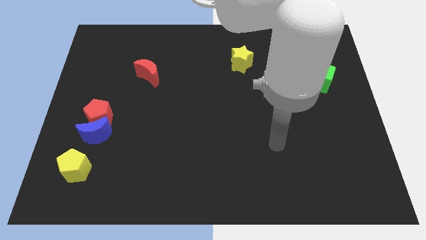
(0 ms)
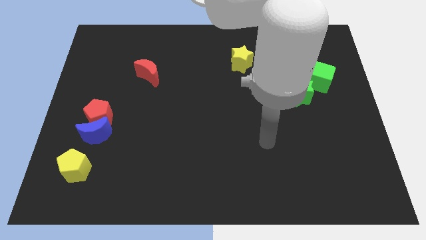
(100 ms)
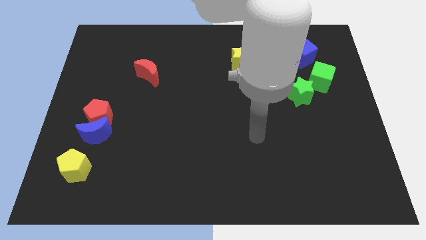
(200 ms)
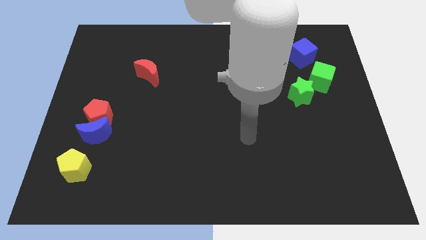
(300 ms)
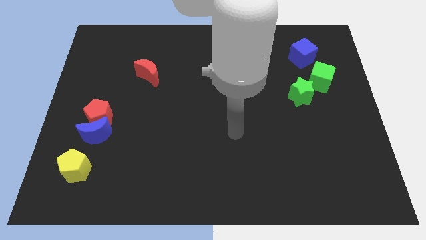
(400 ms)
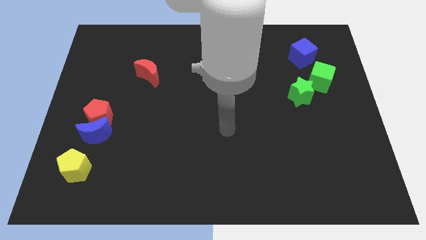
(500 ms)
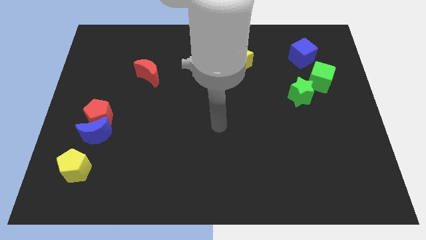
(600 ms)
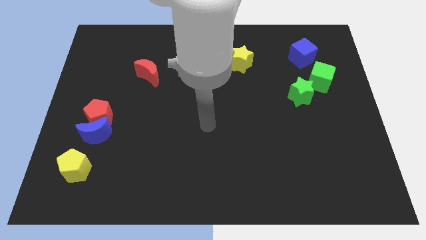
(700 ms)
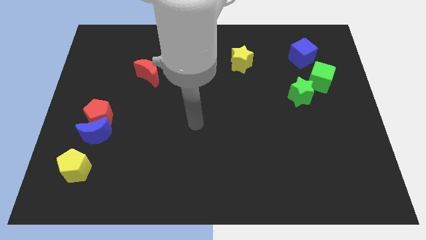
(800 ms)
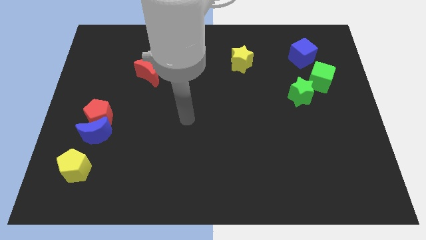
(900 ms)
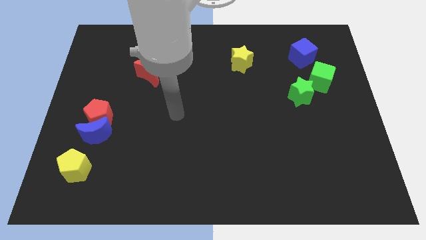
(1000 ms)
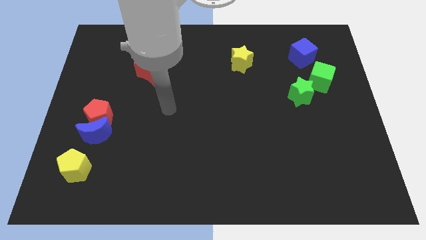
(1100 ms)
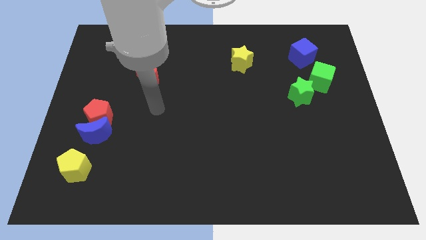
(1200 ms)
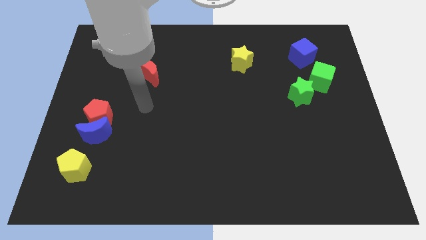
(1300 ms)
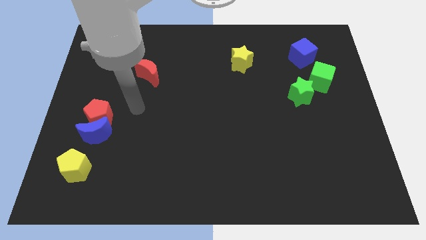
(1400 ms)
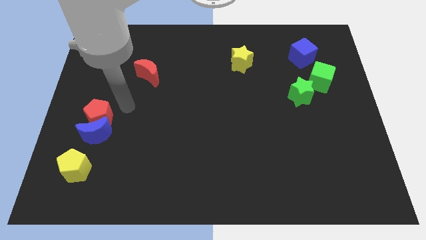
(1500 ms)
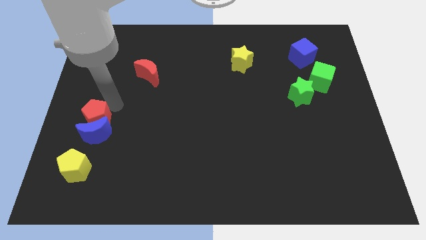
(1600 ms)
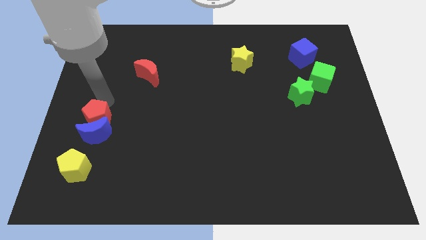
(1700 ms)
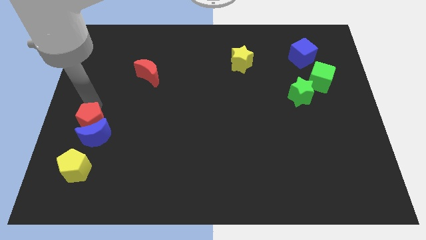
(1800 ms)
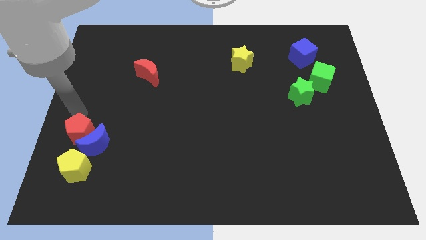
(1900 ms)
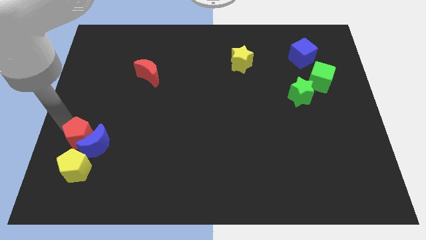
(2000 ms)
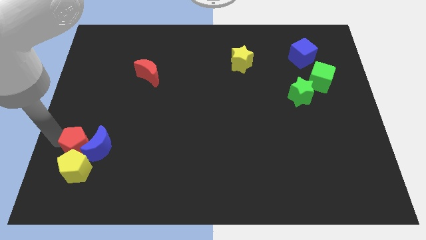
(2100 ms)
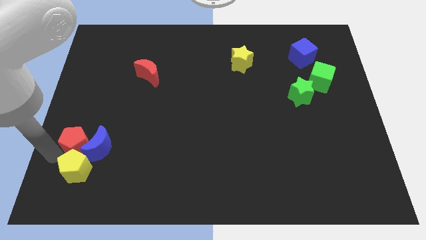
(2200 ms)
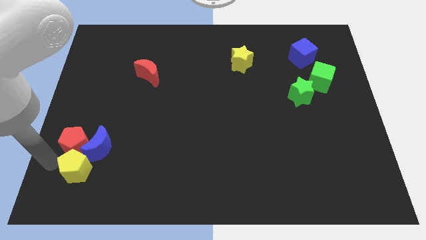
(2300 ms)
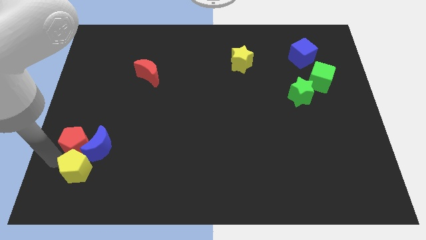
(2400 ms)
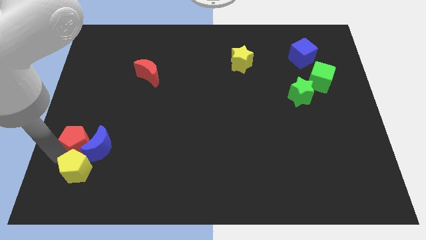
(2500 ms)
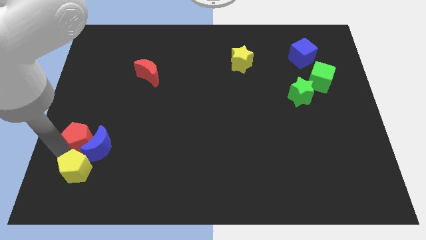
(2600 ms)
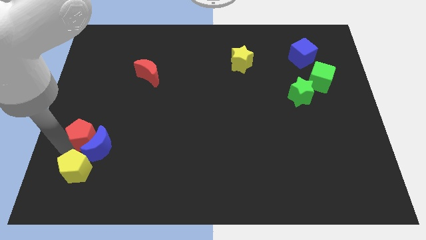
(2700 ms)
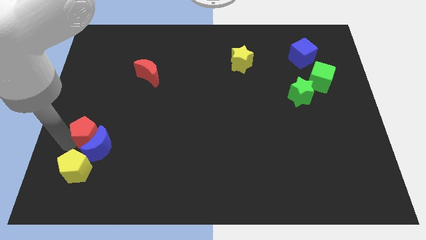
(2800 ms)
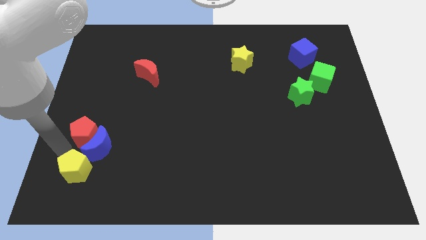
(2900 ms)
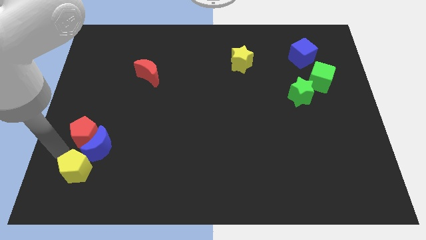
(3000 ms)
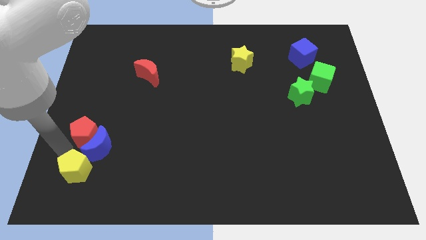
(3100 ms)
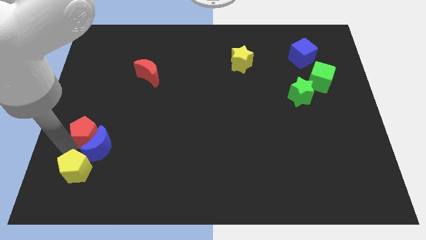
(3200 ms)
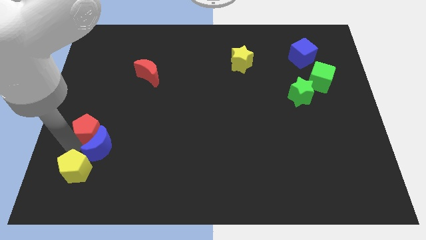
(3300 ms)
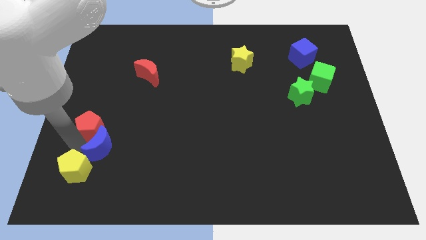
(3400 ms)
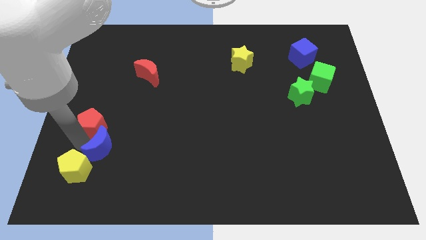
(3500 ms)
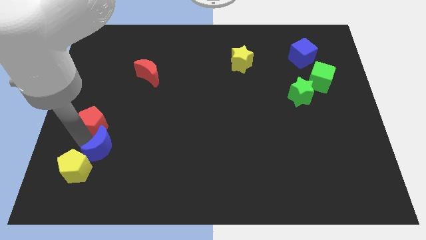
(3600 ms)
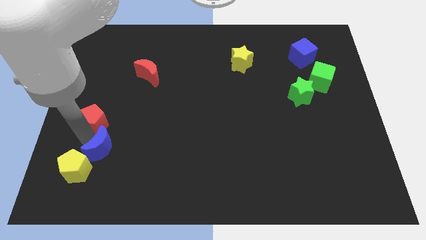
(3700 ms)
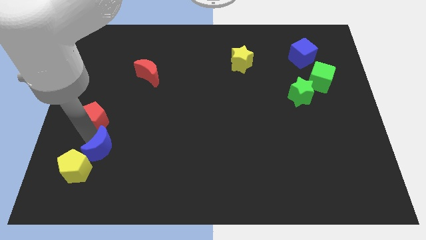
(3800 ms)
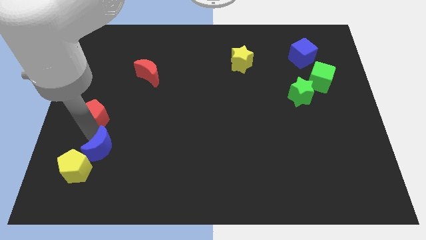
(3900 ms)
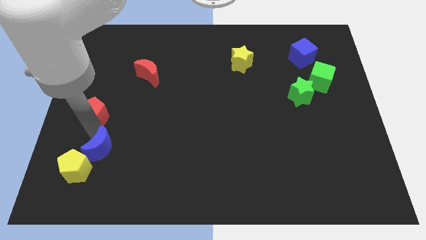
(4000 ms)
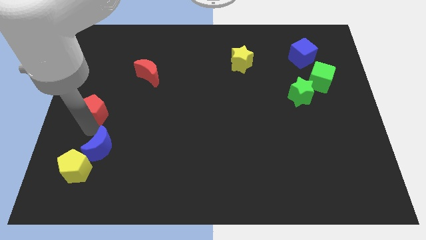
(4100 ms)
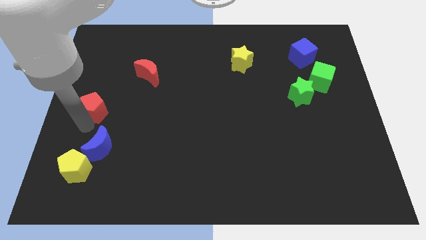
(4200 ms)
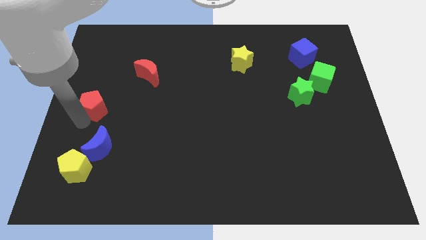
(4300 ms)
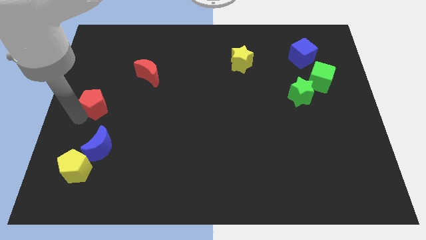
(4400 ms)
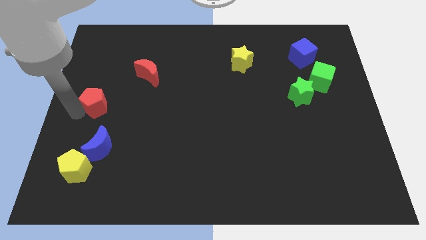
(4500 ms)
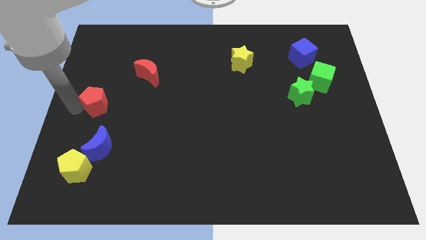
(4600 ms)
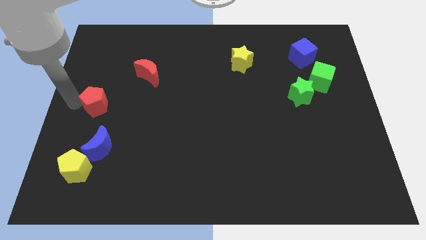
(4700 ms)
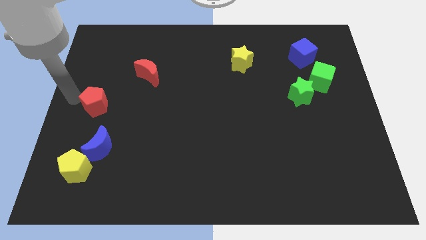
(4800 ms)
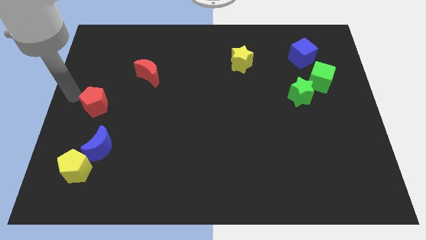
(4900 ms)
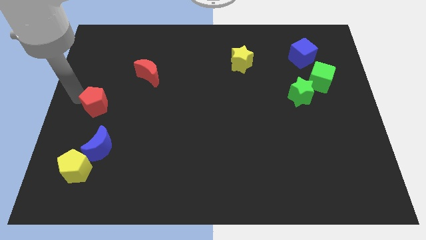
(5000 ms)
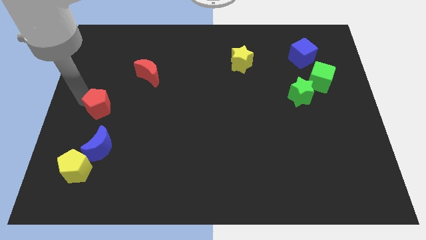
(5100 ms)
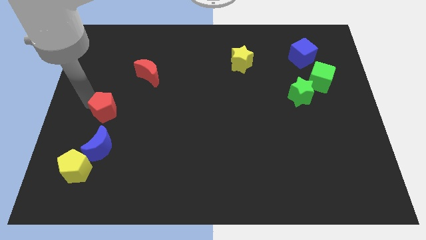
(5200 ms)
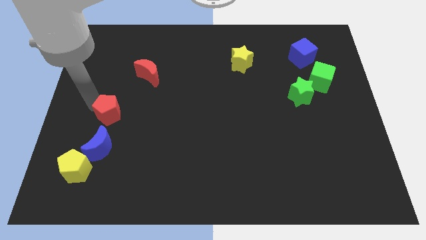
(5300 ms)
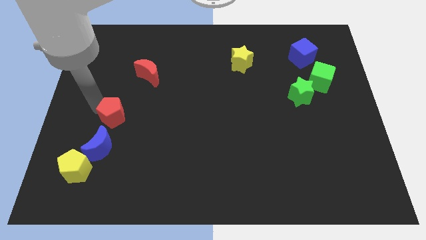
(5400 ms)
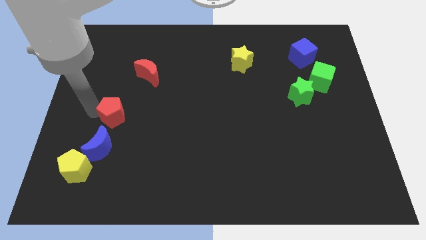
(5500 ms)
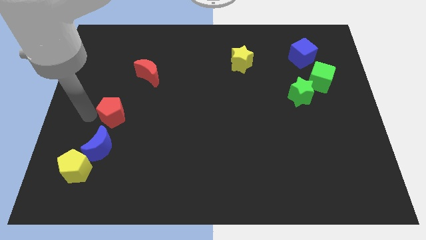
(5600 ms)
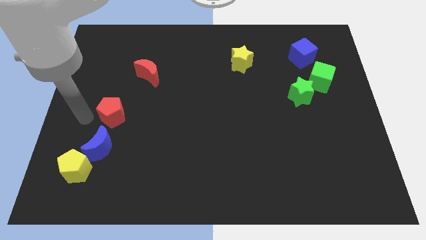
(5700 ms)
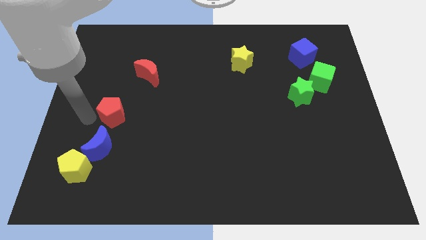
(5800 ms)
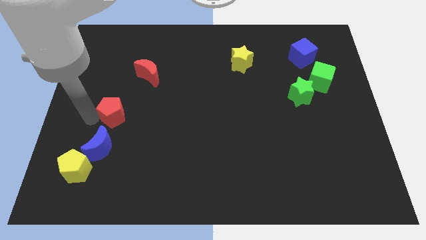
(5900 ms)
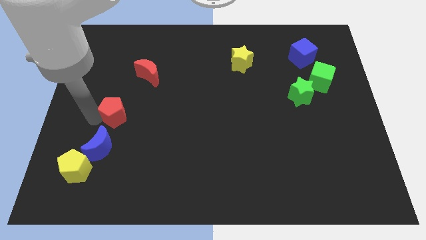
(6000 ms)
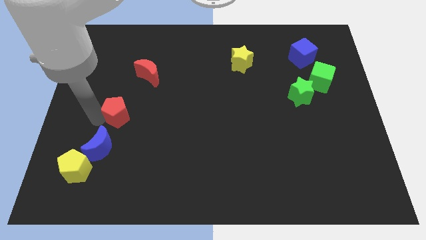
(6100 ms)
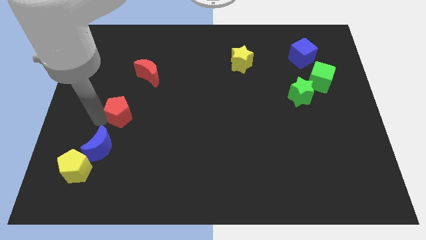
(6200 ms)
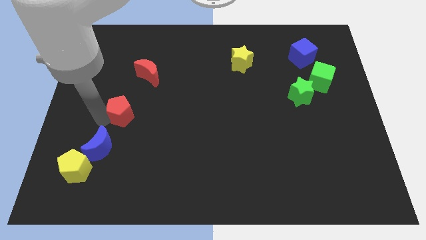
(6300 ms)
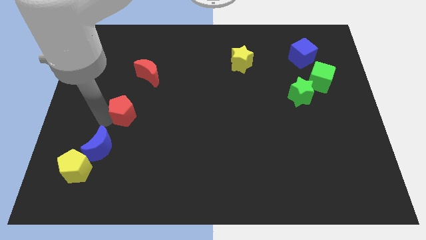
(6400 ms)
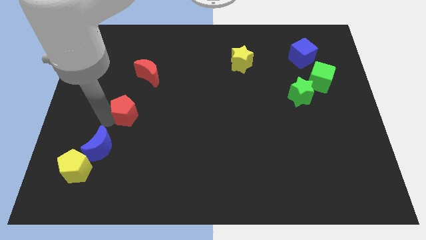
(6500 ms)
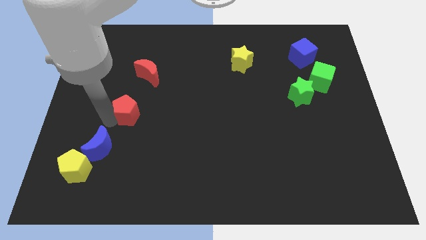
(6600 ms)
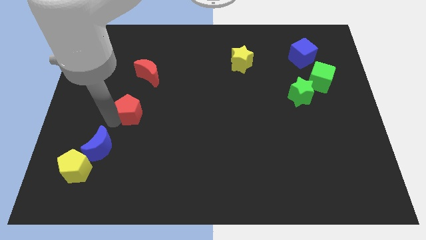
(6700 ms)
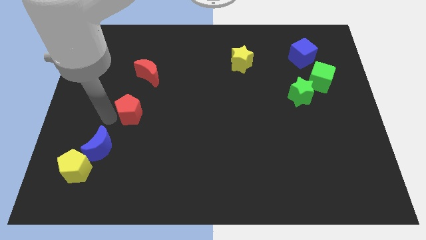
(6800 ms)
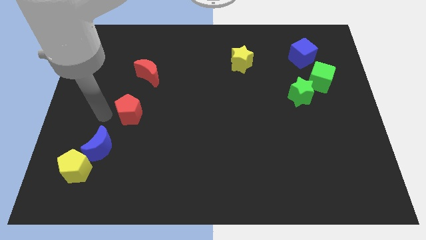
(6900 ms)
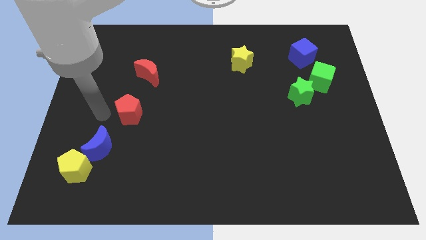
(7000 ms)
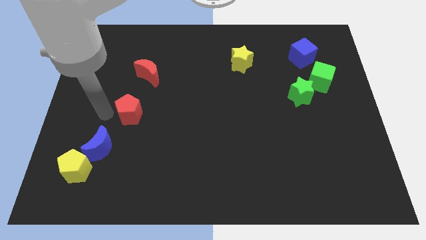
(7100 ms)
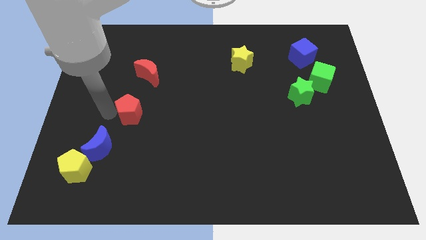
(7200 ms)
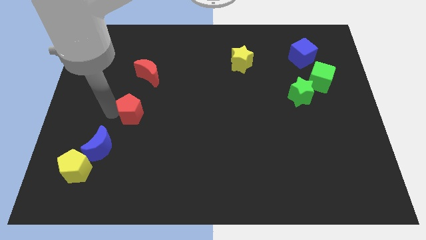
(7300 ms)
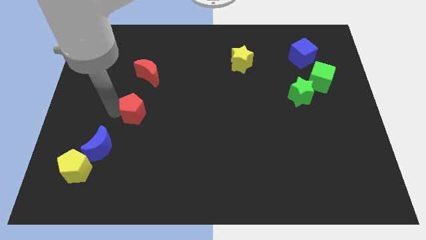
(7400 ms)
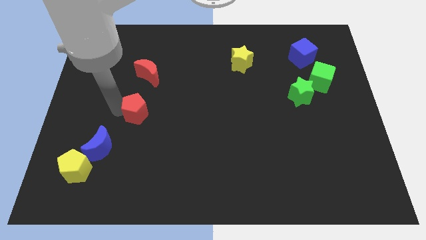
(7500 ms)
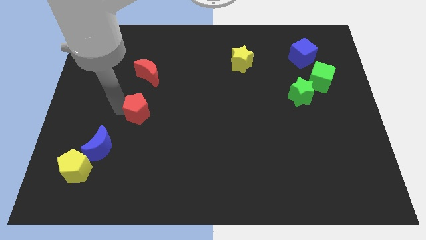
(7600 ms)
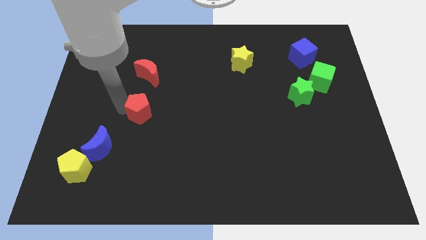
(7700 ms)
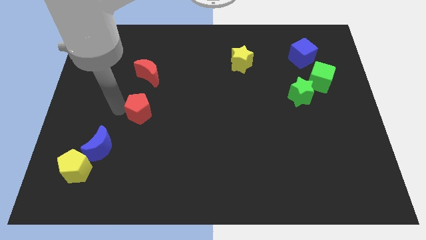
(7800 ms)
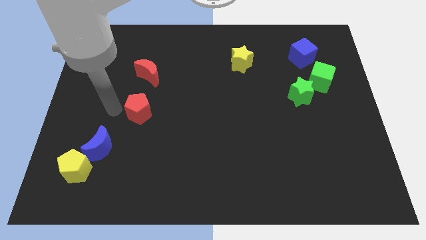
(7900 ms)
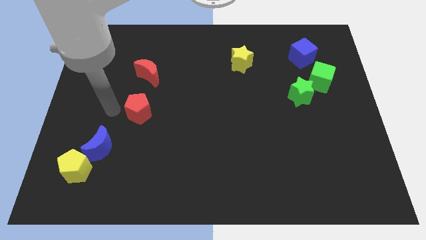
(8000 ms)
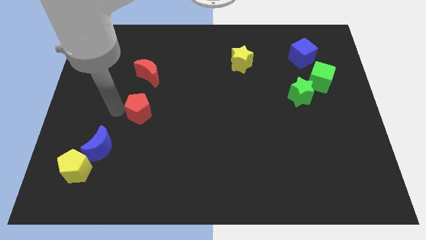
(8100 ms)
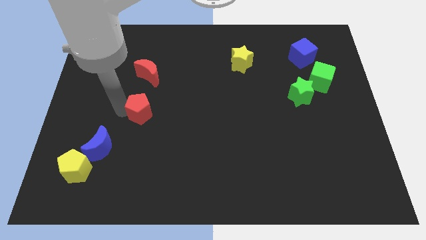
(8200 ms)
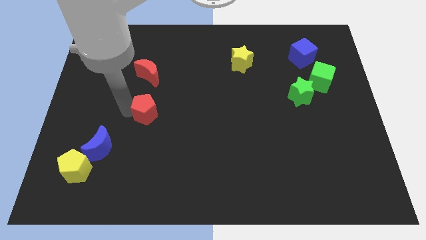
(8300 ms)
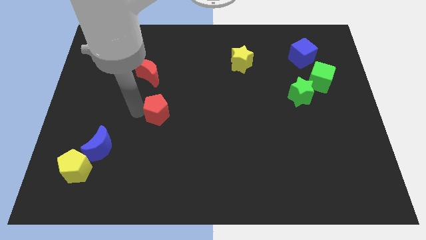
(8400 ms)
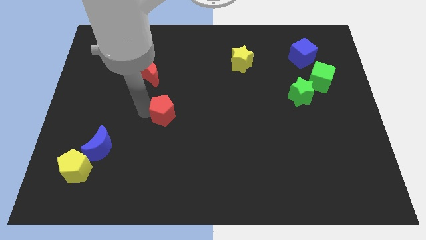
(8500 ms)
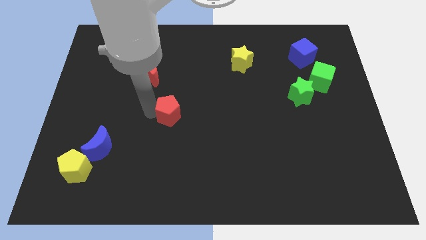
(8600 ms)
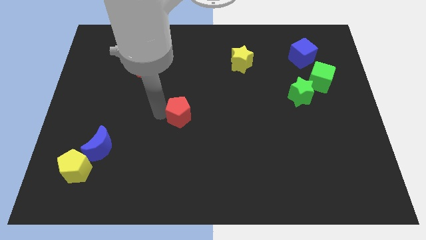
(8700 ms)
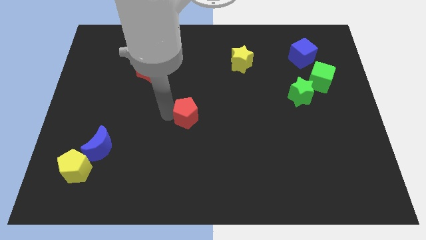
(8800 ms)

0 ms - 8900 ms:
slide the red pentagon to the right
